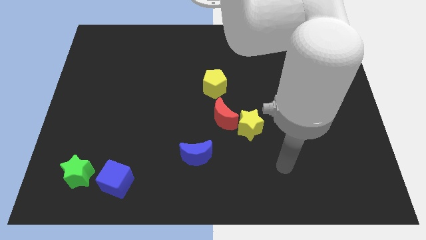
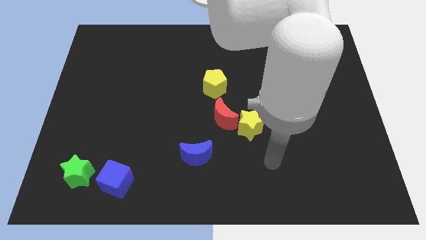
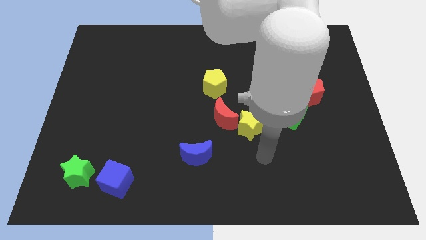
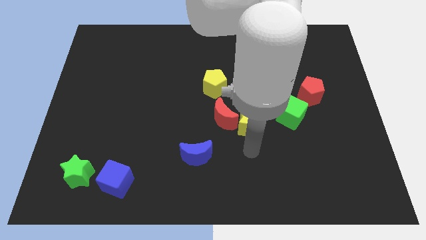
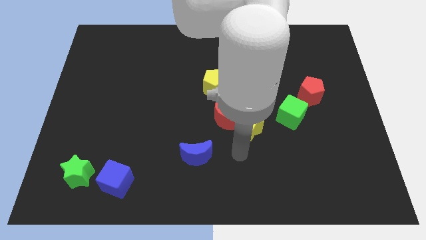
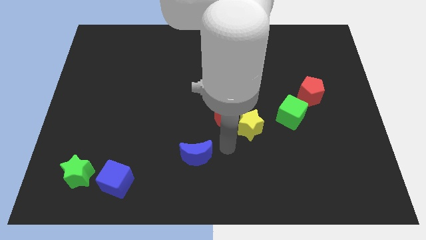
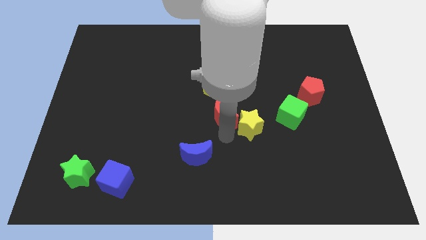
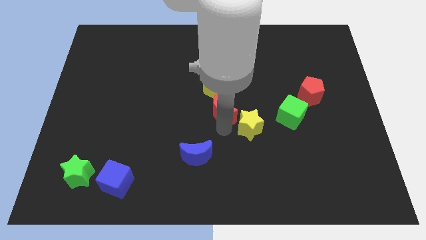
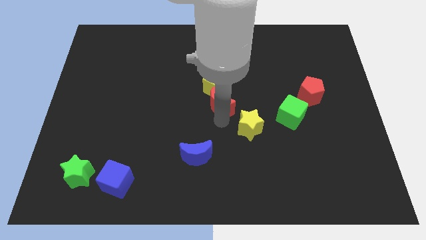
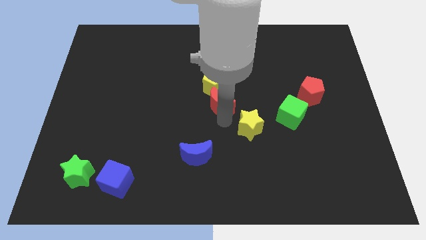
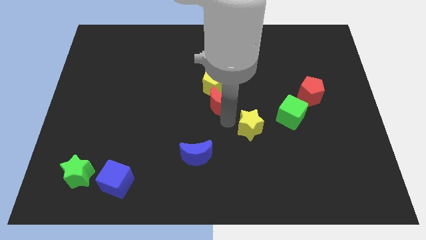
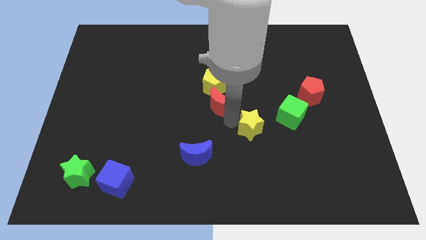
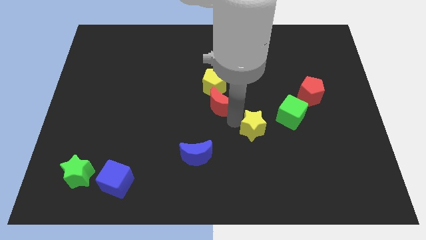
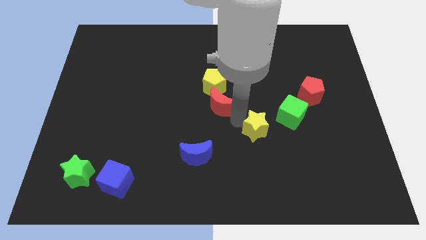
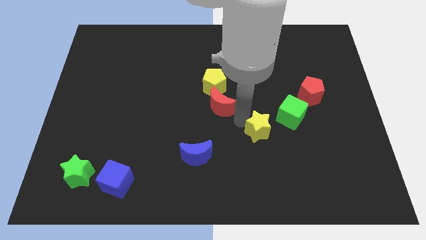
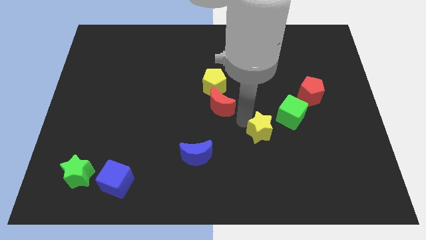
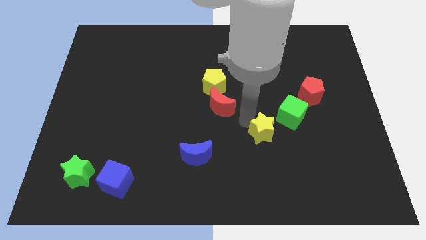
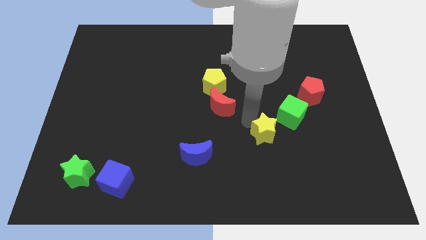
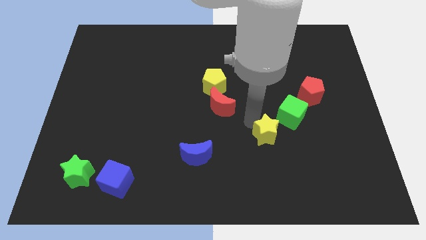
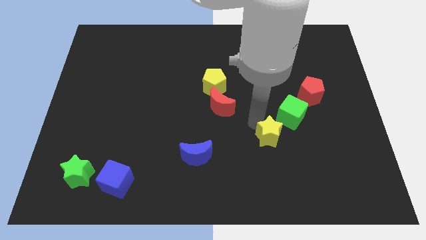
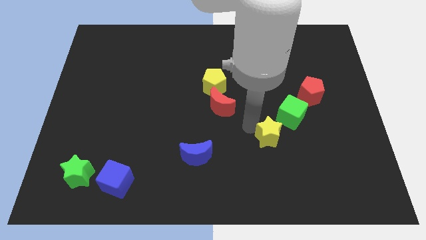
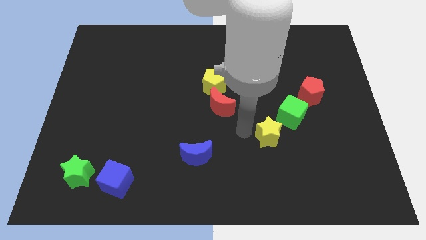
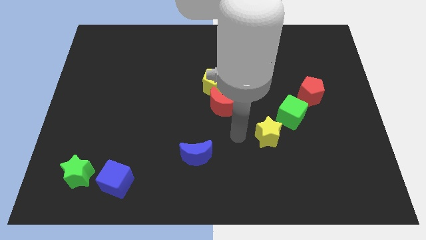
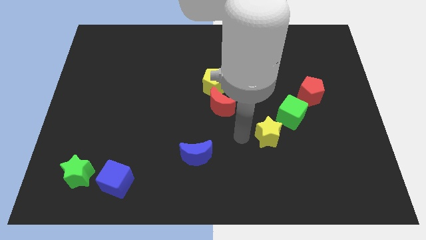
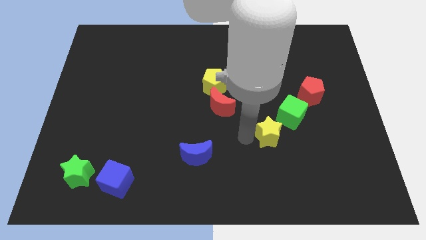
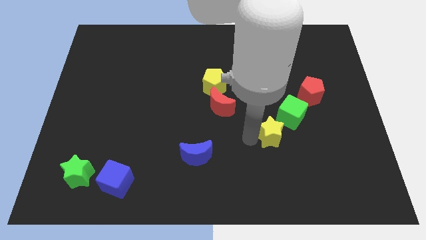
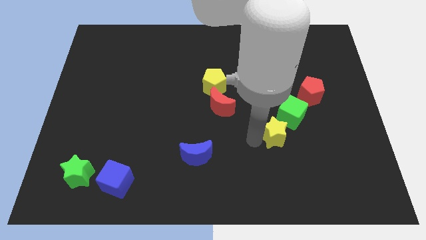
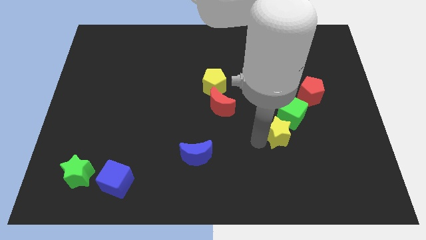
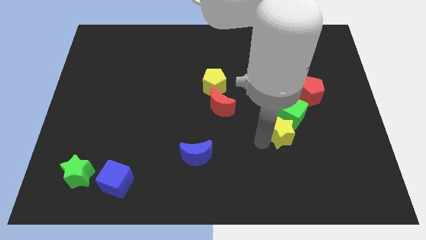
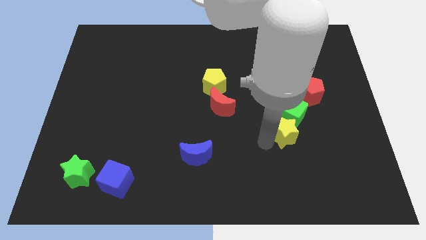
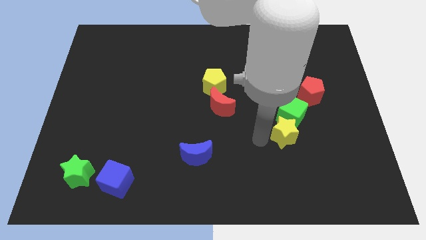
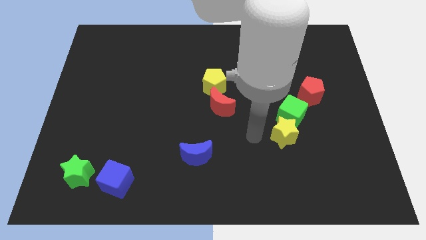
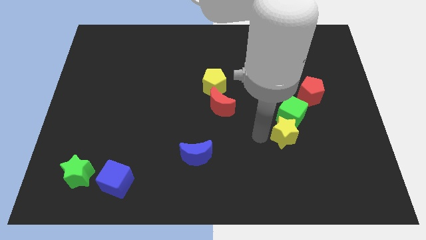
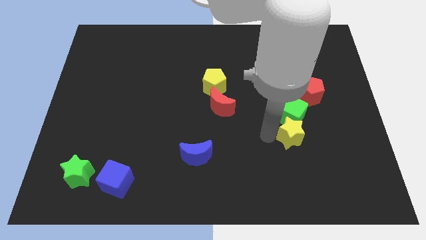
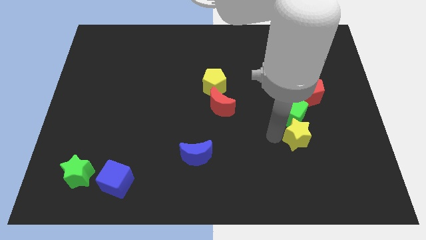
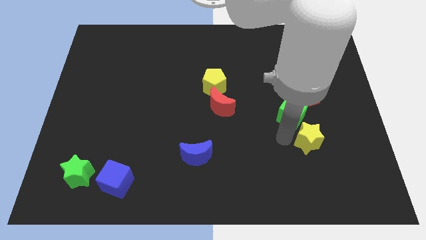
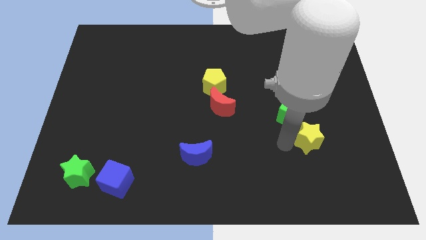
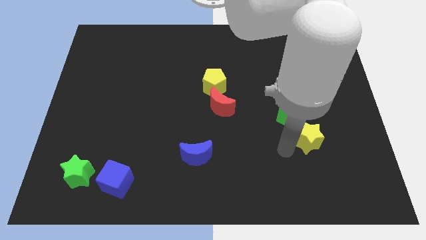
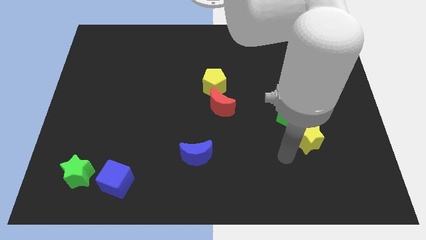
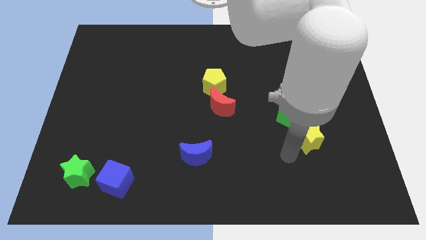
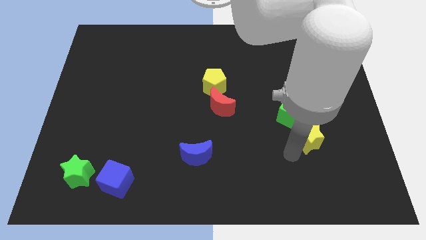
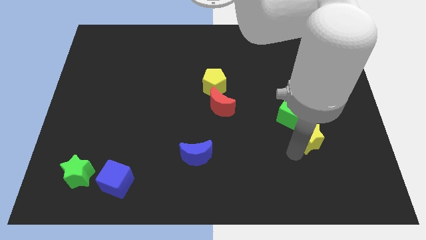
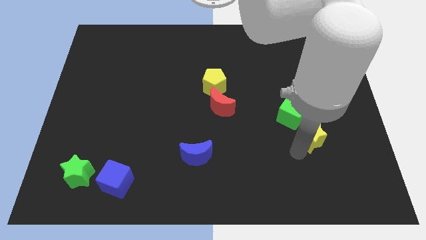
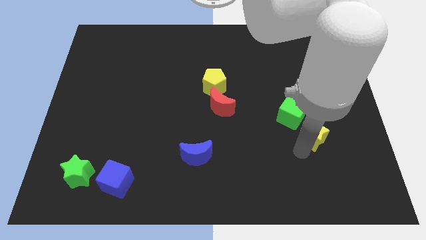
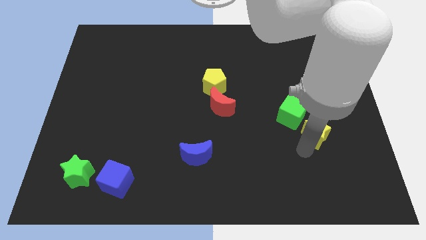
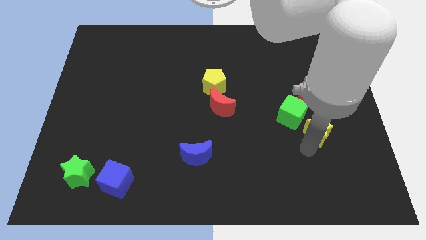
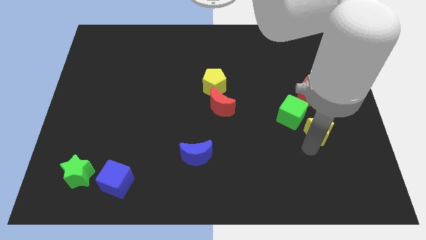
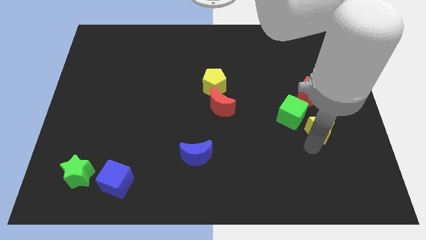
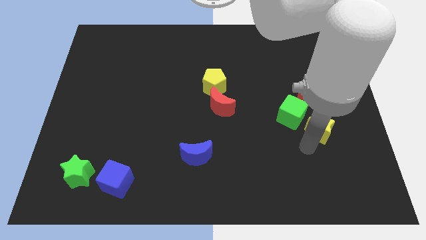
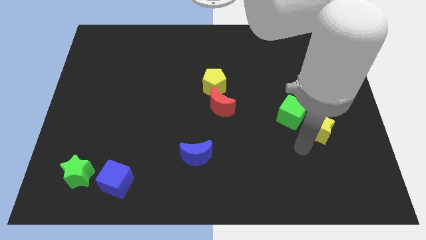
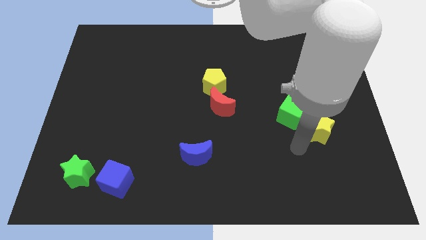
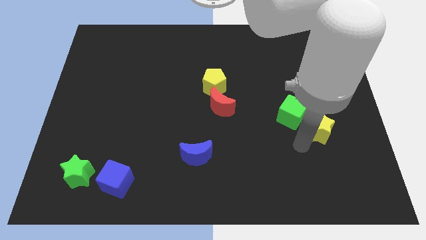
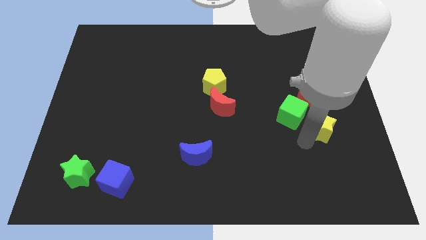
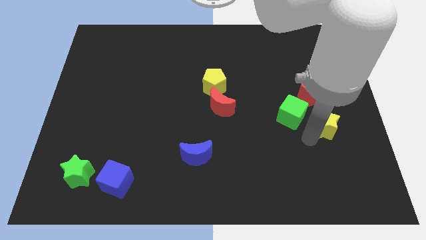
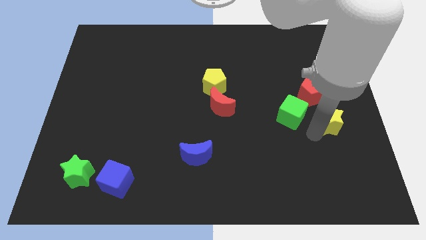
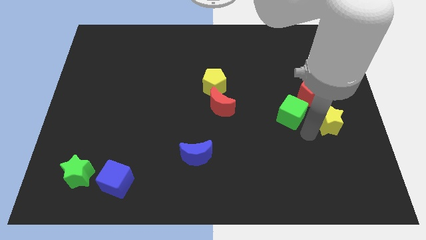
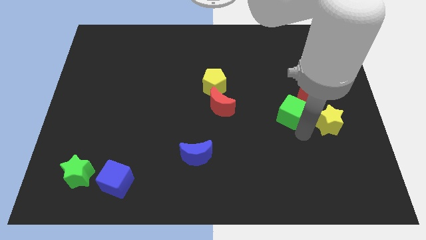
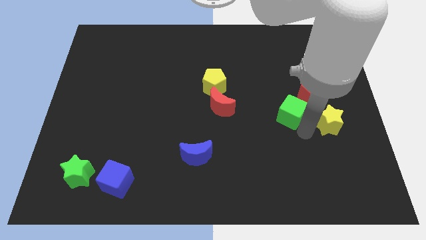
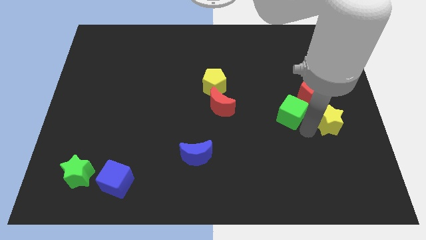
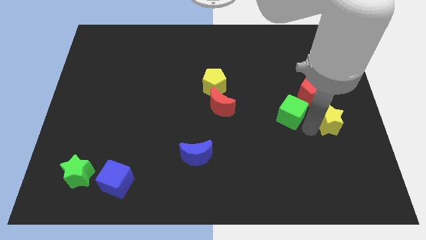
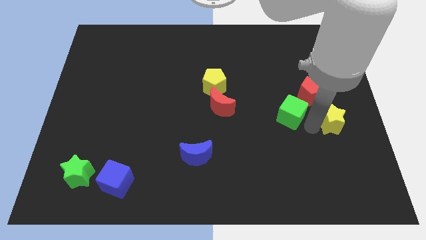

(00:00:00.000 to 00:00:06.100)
slide the yellow star to the center right
